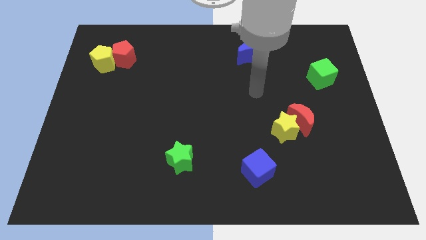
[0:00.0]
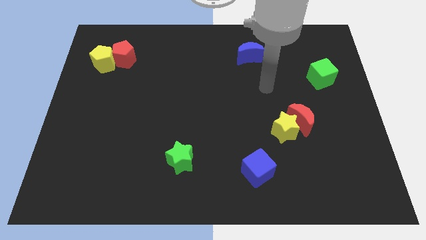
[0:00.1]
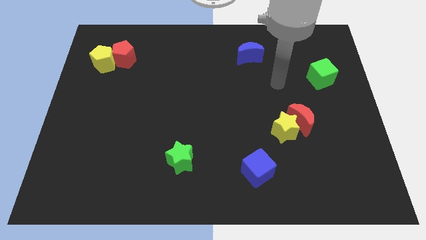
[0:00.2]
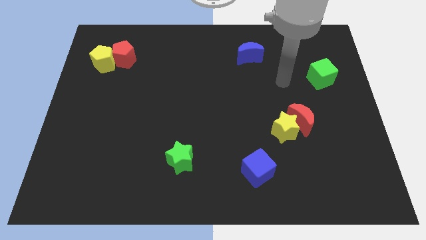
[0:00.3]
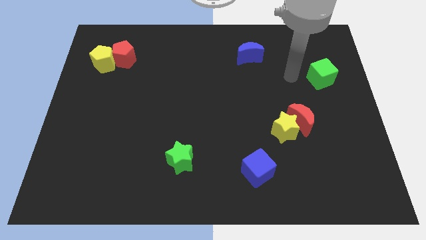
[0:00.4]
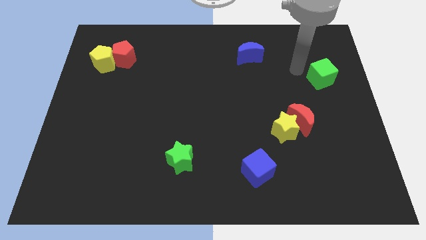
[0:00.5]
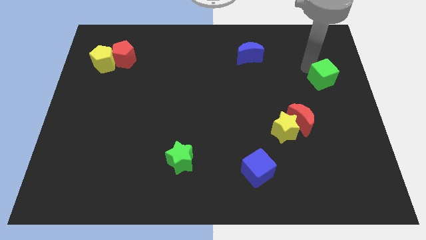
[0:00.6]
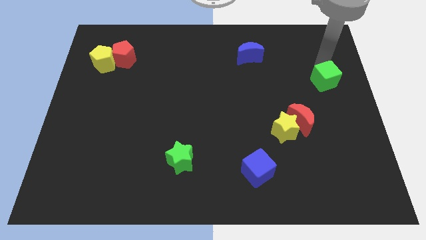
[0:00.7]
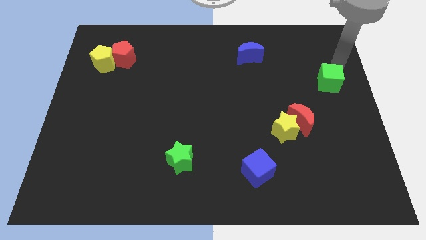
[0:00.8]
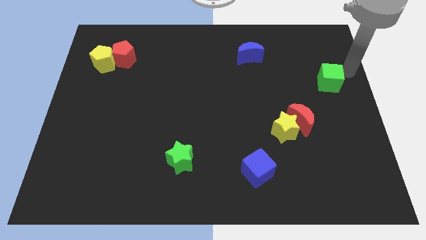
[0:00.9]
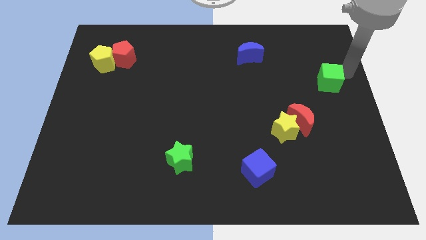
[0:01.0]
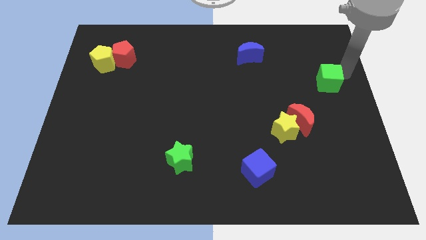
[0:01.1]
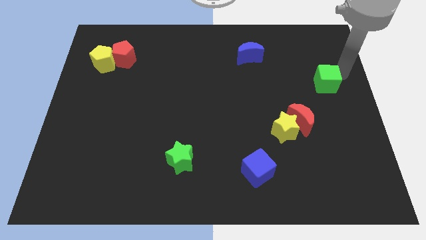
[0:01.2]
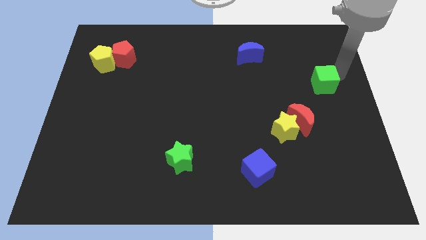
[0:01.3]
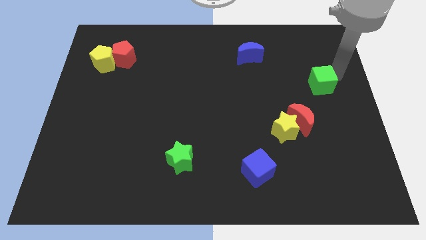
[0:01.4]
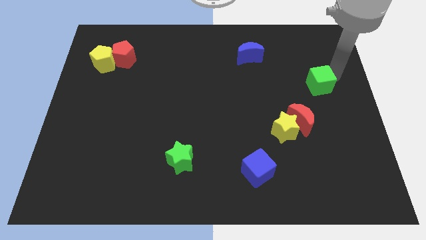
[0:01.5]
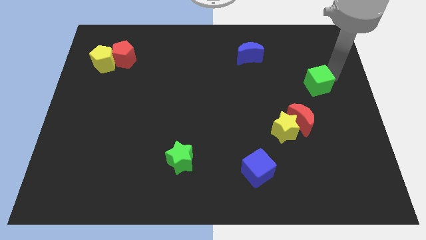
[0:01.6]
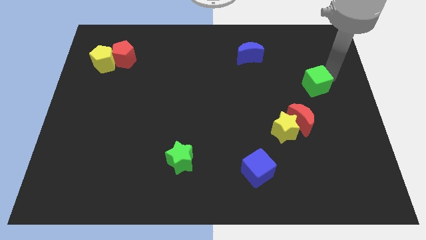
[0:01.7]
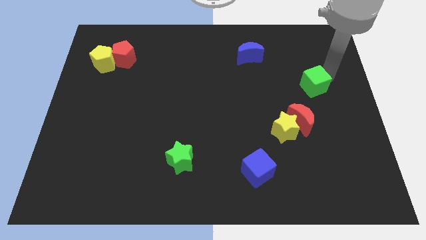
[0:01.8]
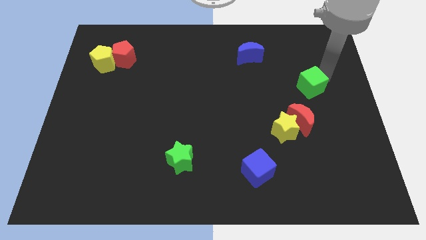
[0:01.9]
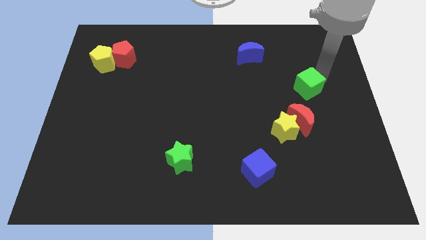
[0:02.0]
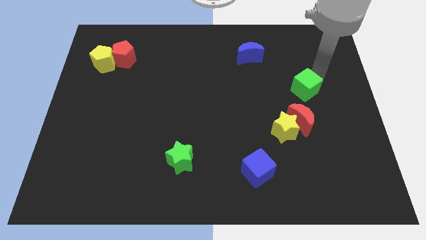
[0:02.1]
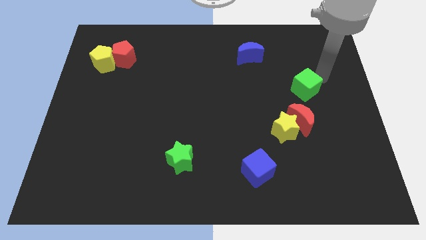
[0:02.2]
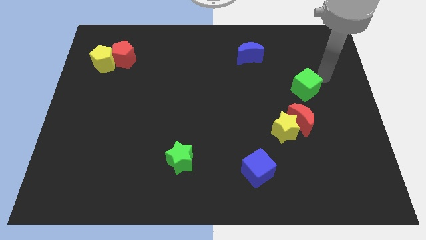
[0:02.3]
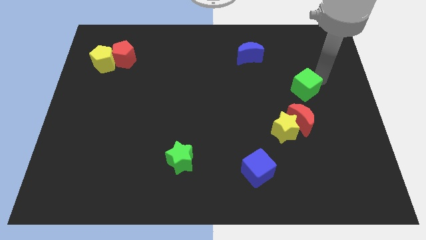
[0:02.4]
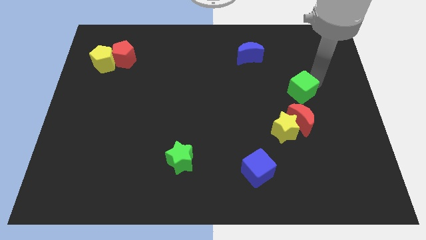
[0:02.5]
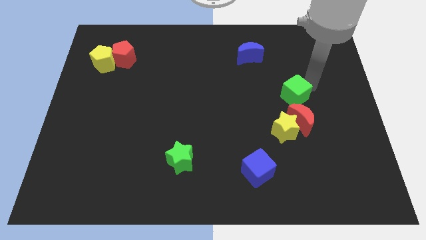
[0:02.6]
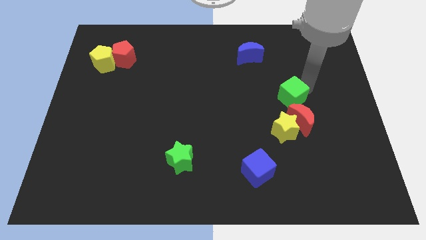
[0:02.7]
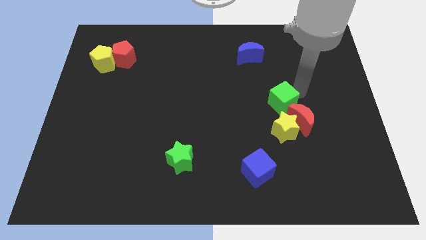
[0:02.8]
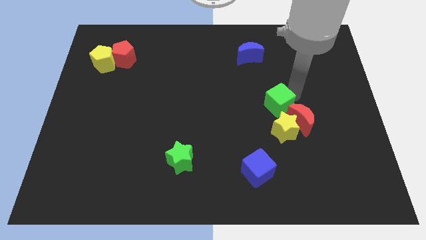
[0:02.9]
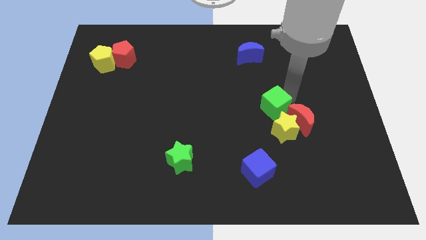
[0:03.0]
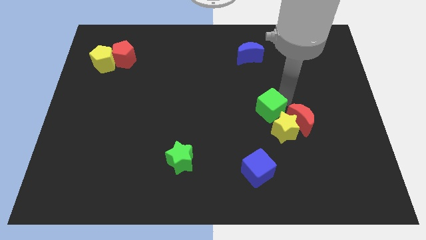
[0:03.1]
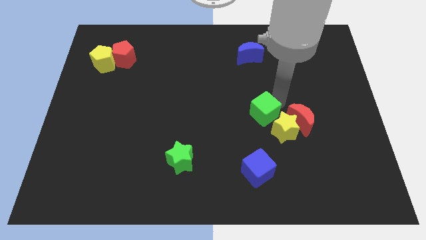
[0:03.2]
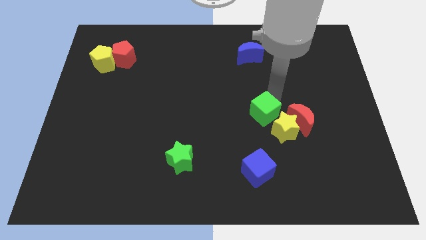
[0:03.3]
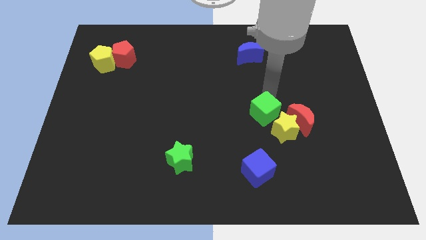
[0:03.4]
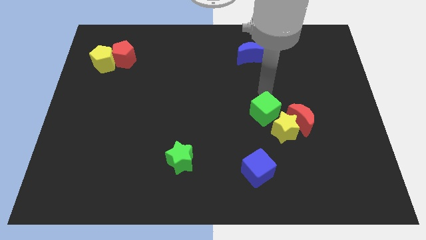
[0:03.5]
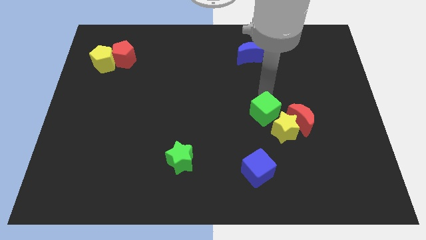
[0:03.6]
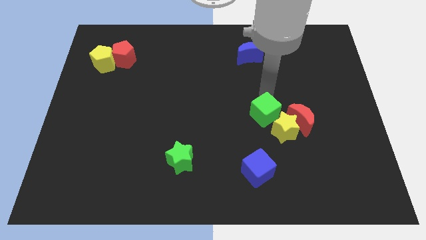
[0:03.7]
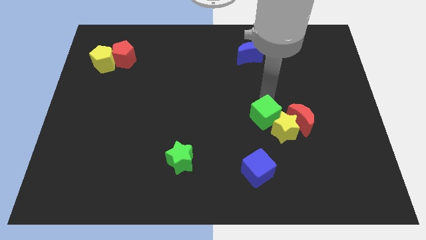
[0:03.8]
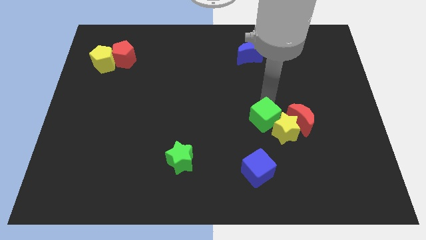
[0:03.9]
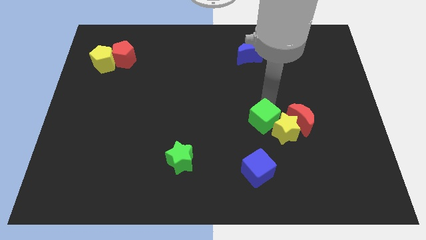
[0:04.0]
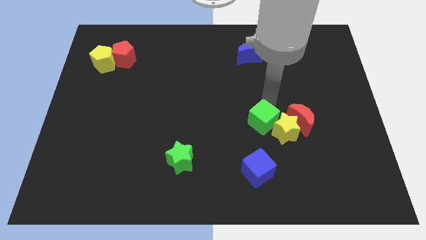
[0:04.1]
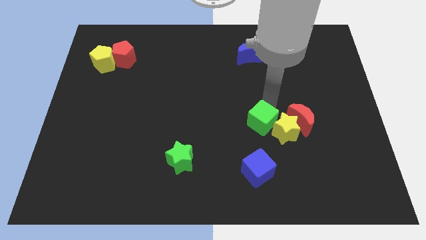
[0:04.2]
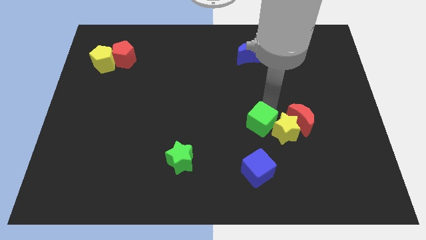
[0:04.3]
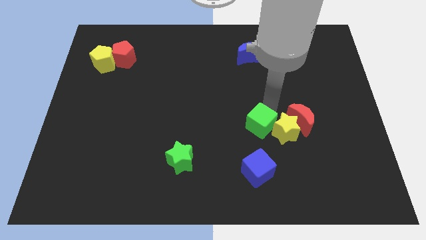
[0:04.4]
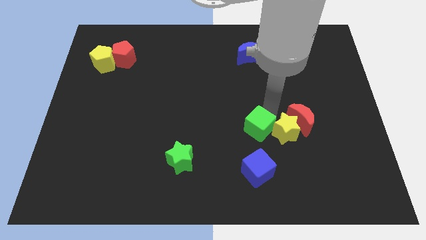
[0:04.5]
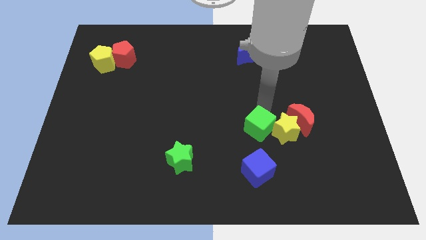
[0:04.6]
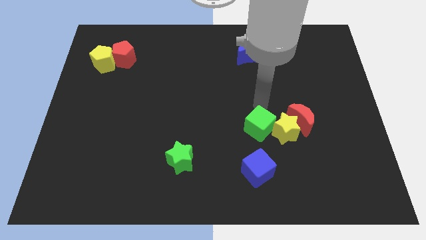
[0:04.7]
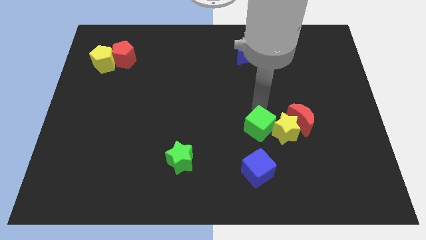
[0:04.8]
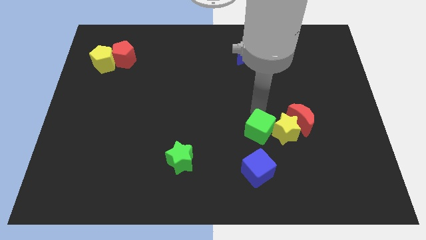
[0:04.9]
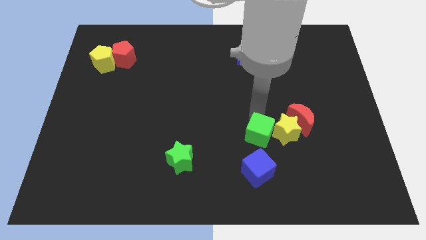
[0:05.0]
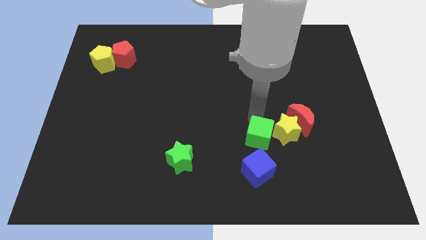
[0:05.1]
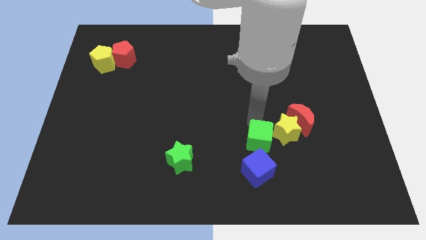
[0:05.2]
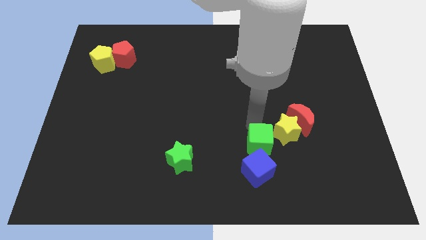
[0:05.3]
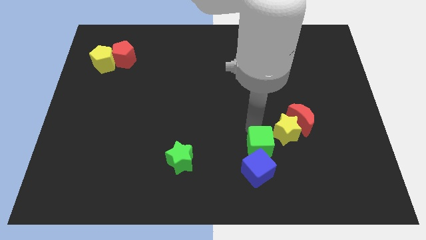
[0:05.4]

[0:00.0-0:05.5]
slide the green cube towards the blue cube

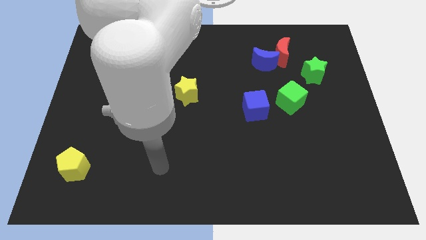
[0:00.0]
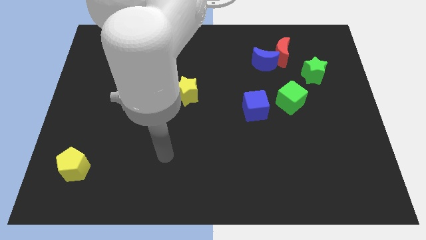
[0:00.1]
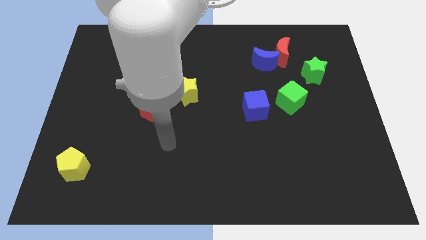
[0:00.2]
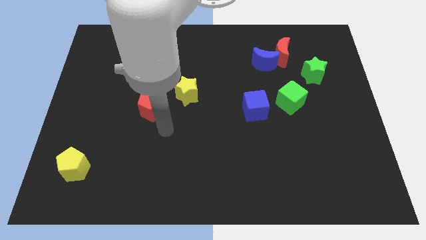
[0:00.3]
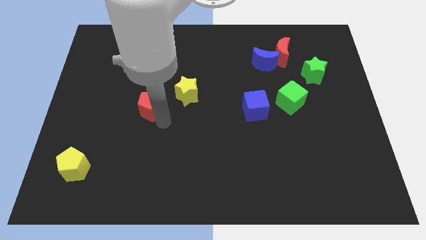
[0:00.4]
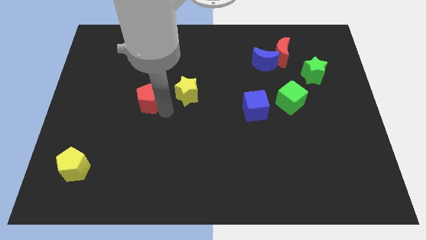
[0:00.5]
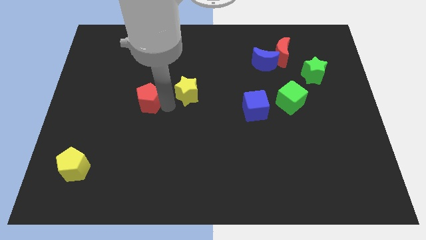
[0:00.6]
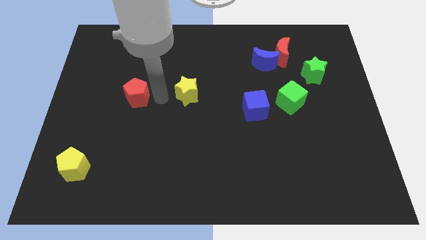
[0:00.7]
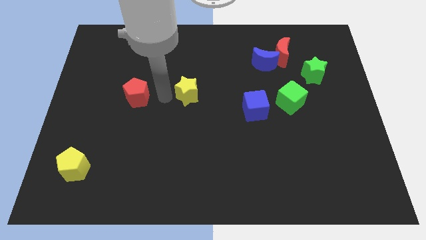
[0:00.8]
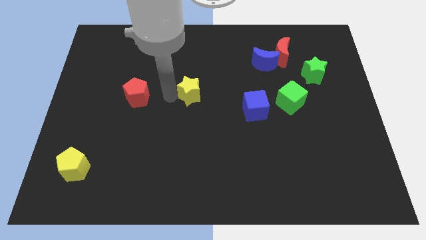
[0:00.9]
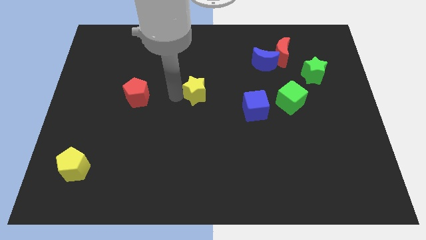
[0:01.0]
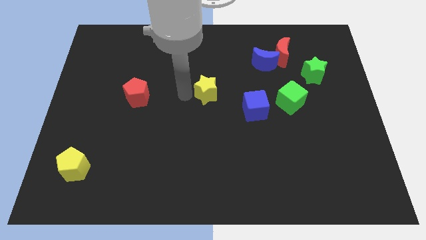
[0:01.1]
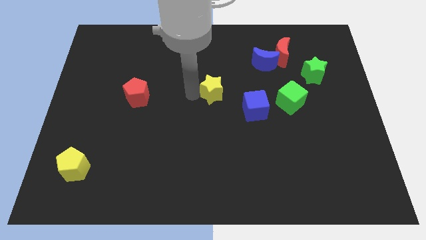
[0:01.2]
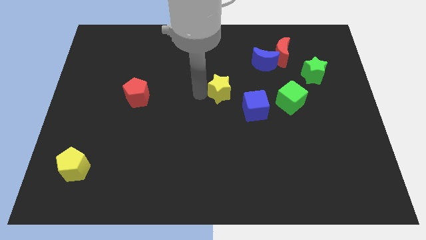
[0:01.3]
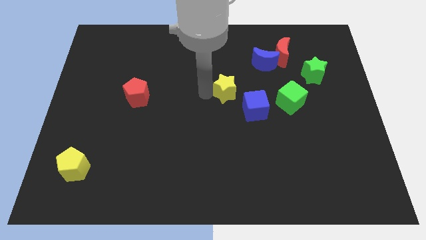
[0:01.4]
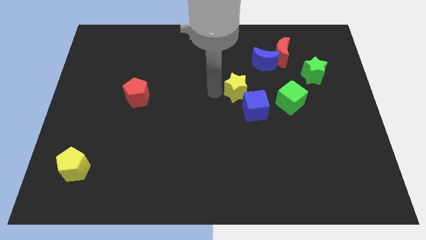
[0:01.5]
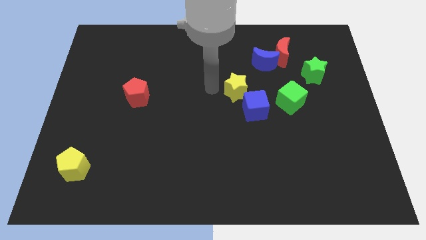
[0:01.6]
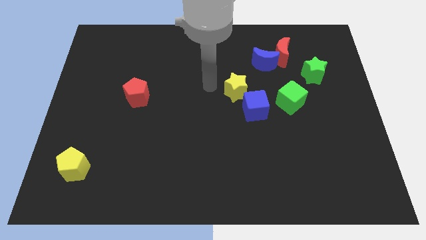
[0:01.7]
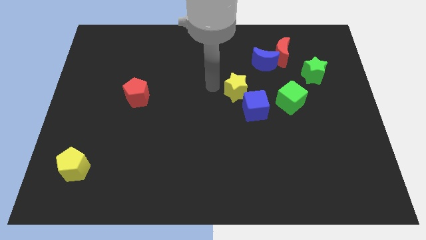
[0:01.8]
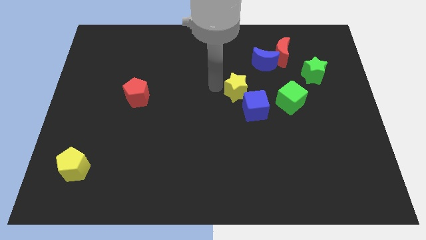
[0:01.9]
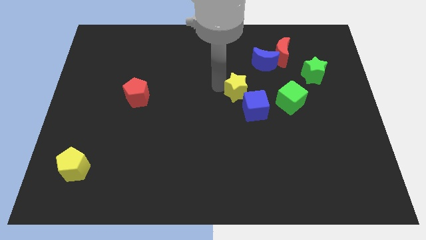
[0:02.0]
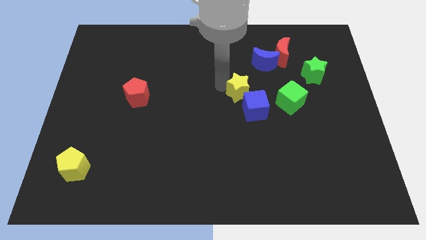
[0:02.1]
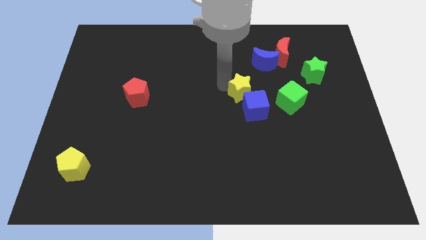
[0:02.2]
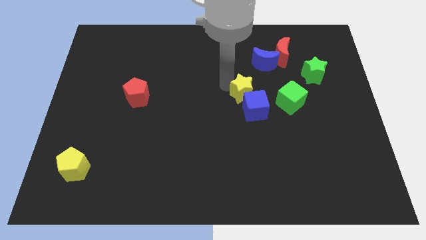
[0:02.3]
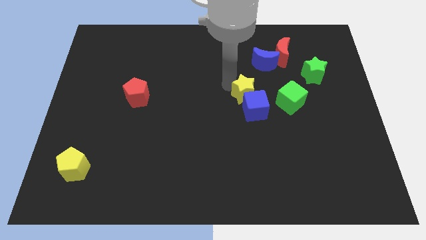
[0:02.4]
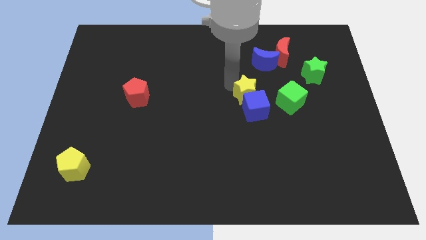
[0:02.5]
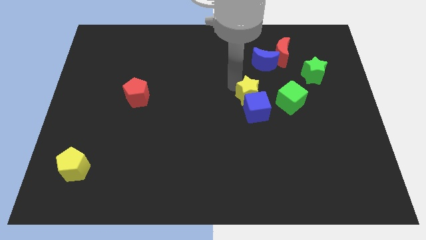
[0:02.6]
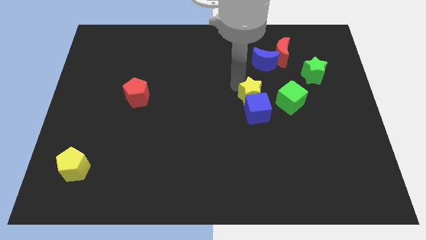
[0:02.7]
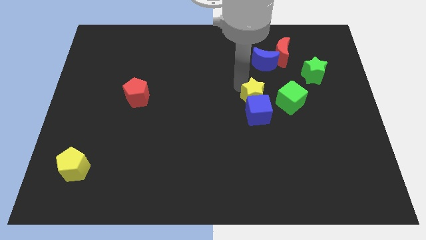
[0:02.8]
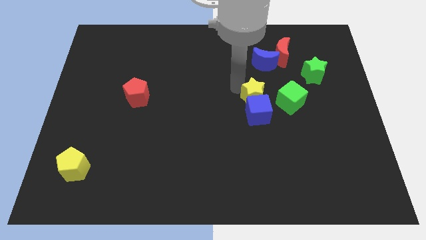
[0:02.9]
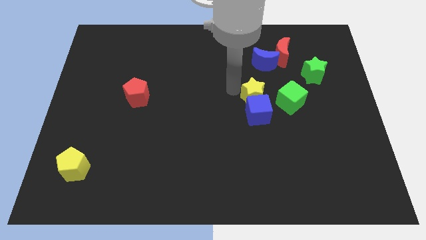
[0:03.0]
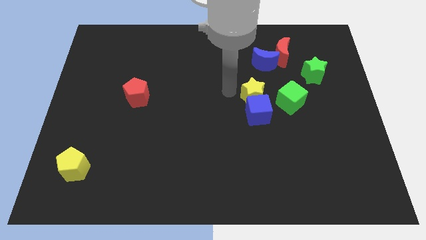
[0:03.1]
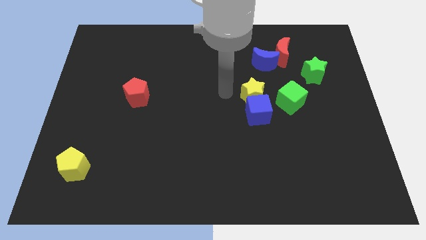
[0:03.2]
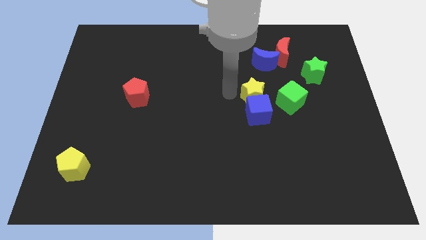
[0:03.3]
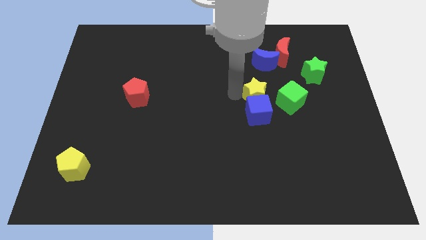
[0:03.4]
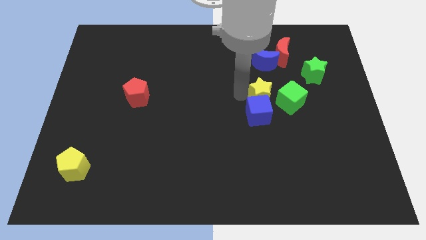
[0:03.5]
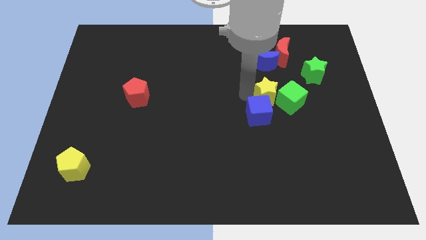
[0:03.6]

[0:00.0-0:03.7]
move the yellow star to the green cube
